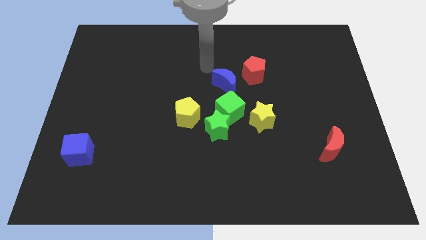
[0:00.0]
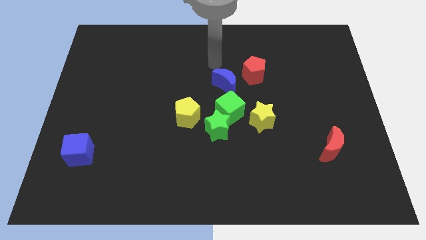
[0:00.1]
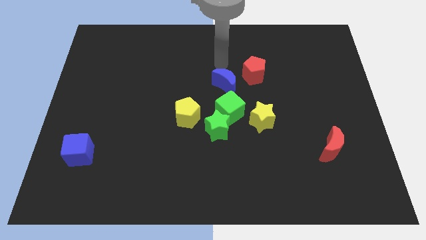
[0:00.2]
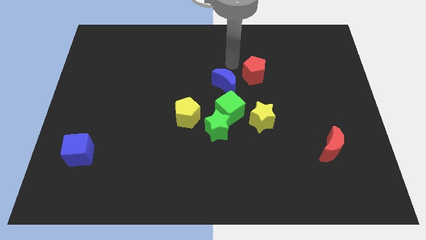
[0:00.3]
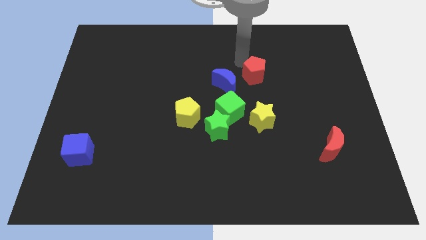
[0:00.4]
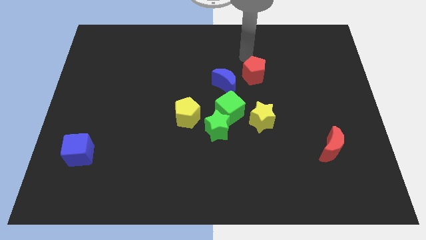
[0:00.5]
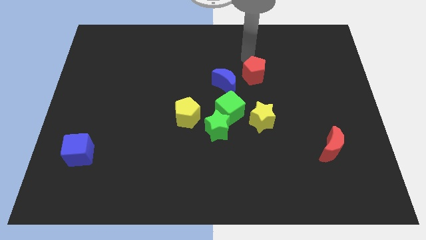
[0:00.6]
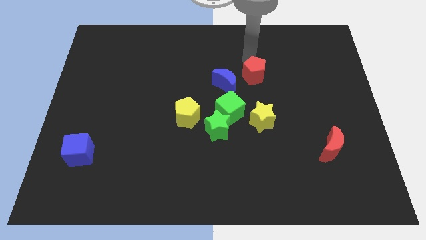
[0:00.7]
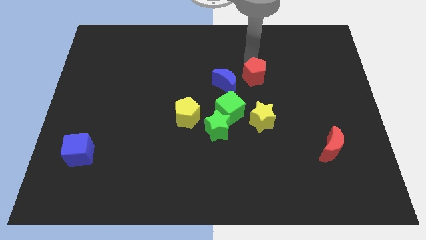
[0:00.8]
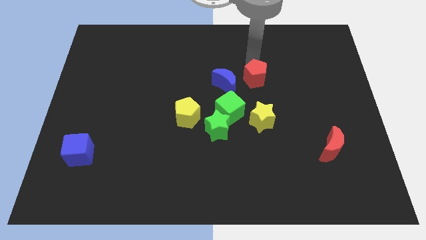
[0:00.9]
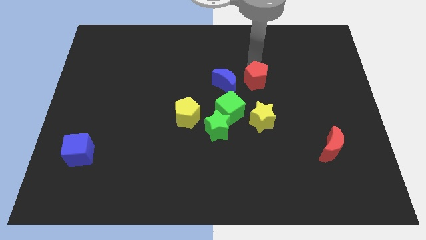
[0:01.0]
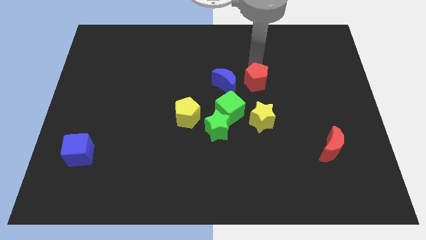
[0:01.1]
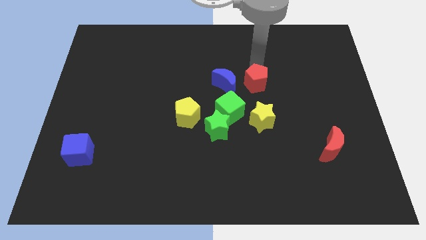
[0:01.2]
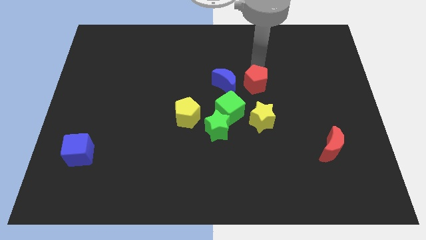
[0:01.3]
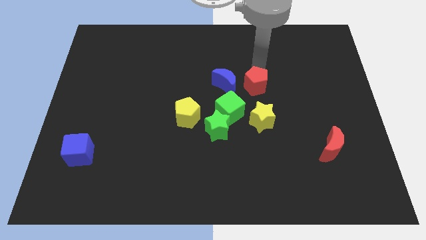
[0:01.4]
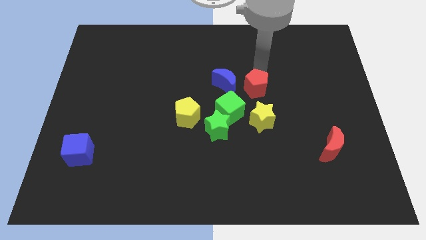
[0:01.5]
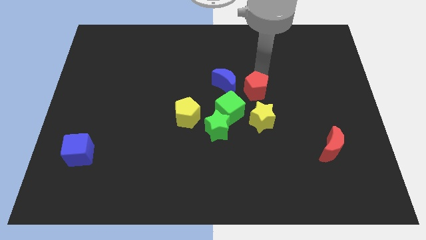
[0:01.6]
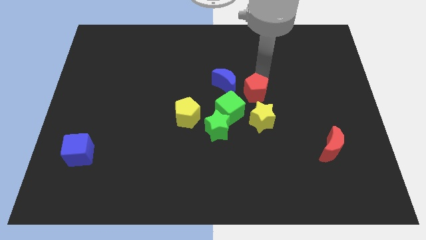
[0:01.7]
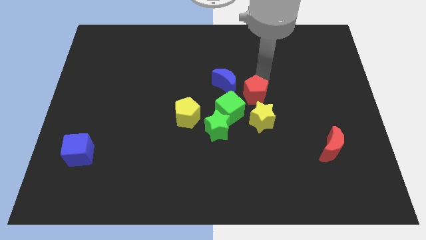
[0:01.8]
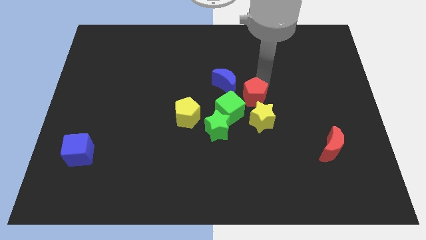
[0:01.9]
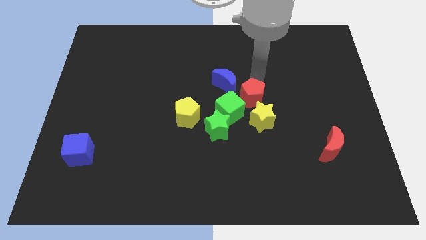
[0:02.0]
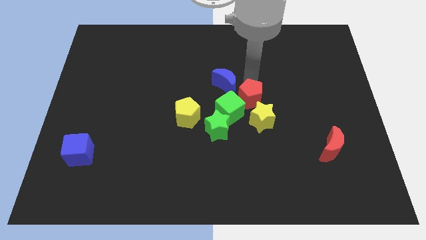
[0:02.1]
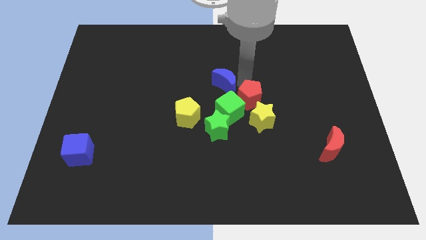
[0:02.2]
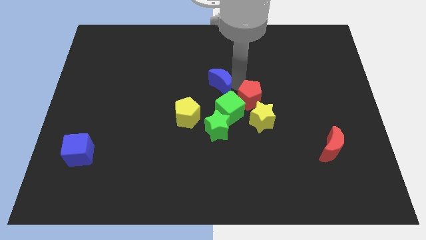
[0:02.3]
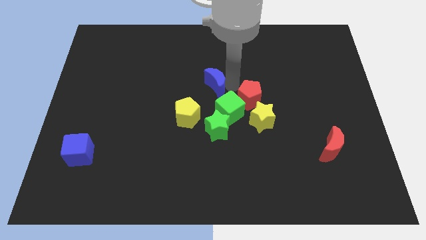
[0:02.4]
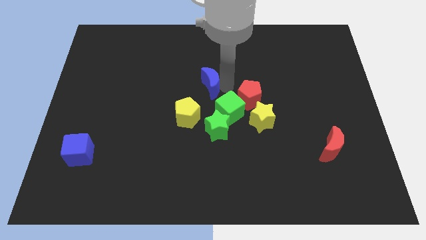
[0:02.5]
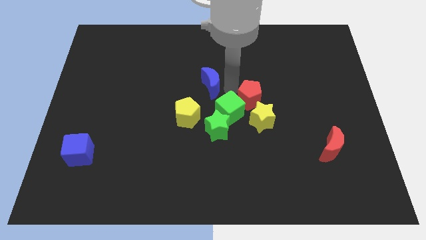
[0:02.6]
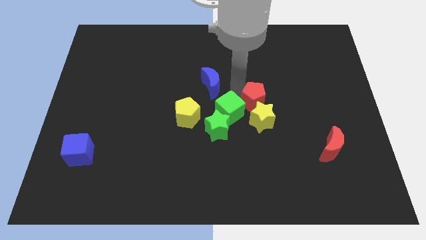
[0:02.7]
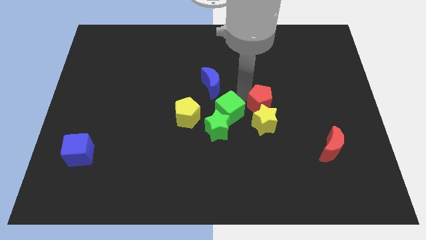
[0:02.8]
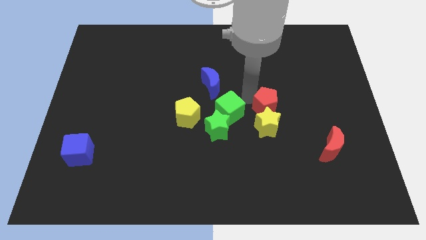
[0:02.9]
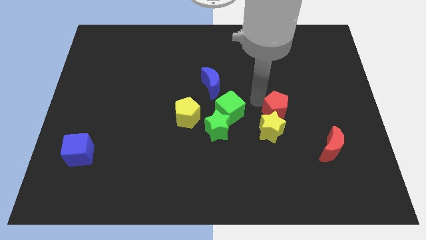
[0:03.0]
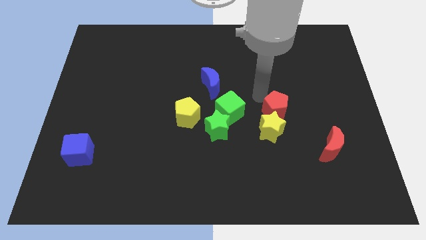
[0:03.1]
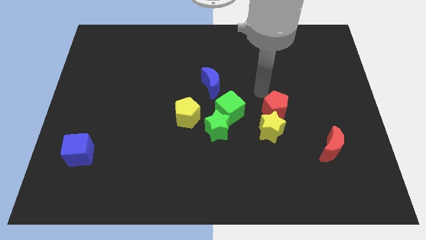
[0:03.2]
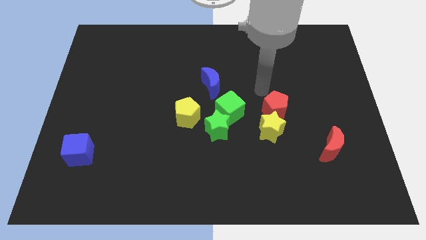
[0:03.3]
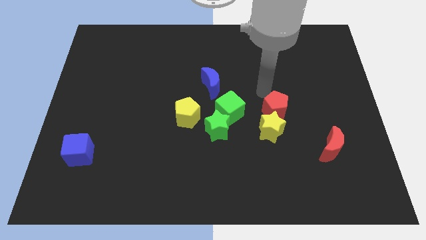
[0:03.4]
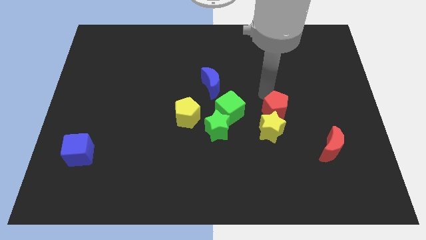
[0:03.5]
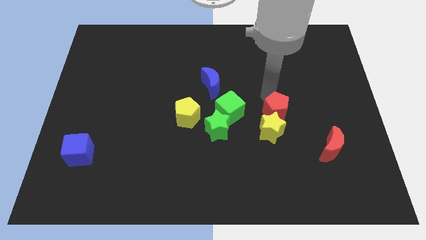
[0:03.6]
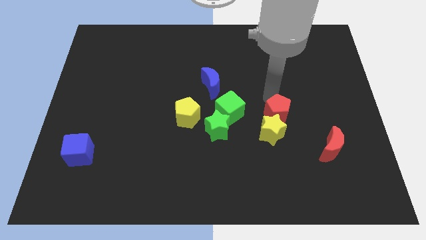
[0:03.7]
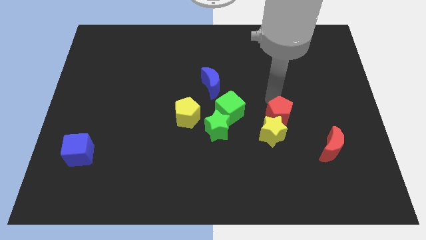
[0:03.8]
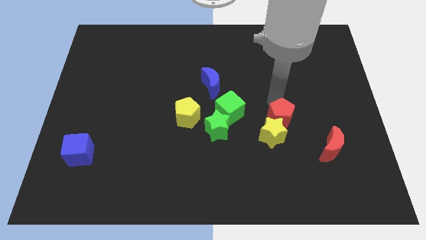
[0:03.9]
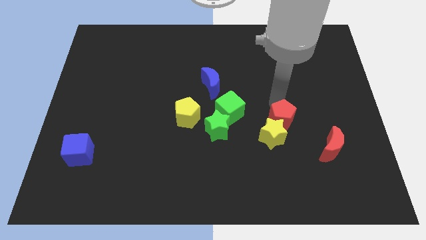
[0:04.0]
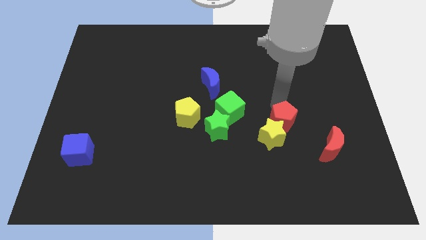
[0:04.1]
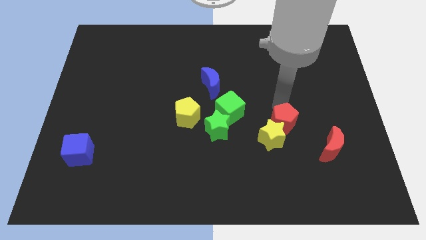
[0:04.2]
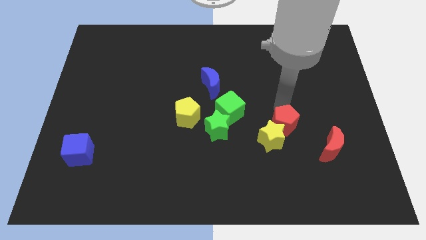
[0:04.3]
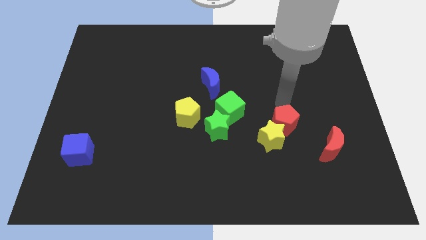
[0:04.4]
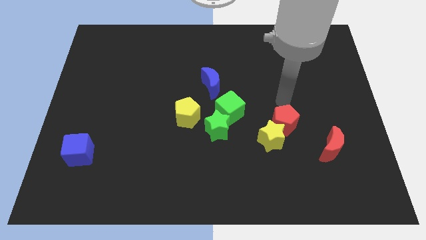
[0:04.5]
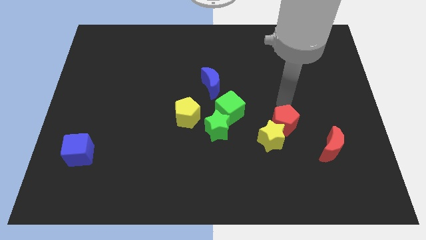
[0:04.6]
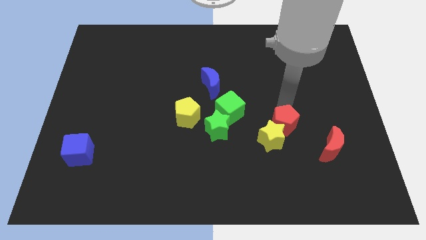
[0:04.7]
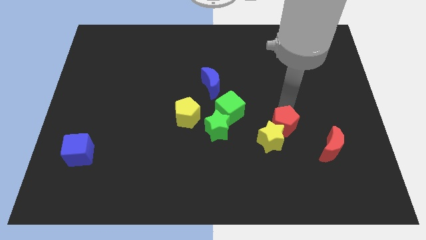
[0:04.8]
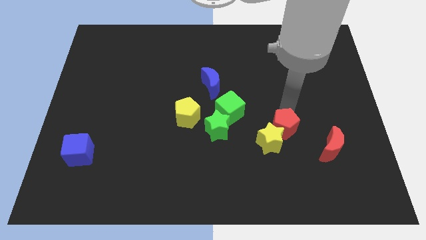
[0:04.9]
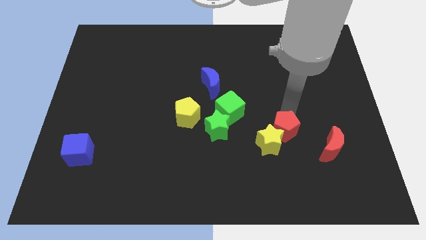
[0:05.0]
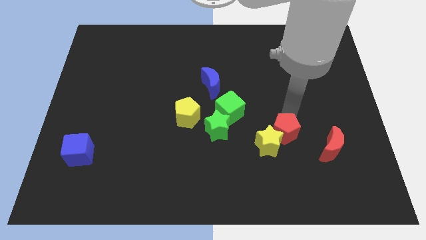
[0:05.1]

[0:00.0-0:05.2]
slide the red pentagon to the left of the red moon

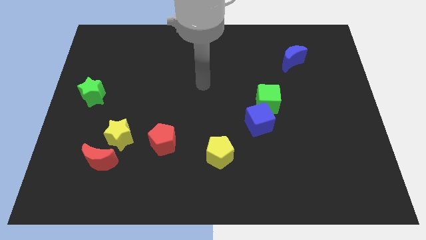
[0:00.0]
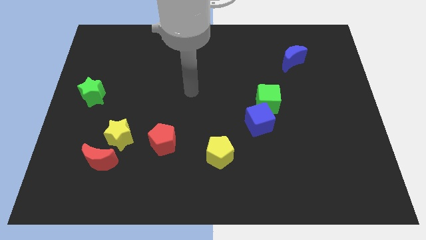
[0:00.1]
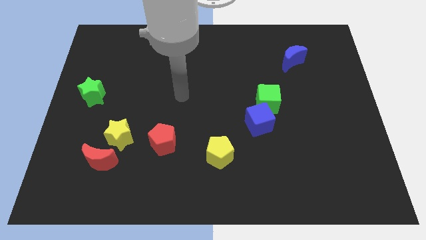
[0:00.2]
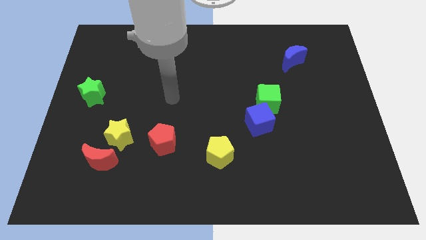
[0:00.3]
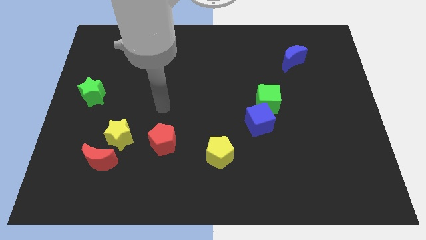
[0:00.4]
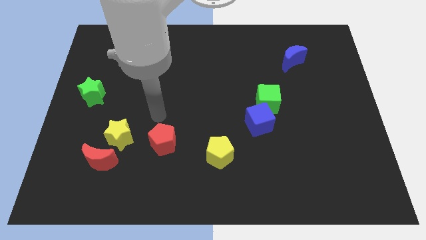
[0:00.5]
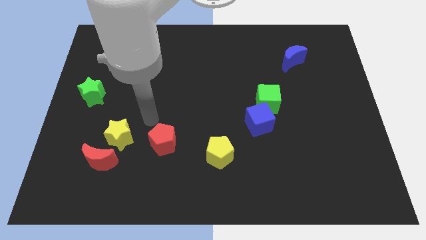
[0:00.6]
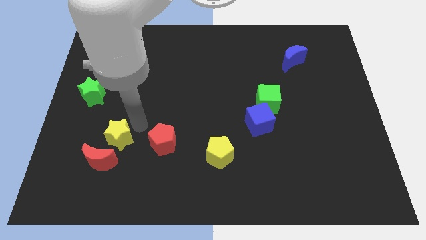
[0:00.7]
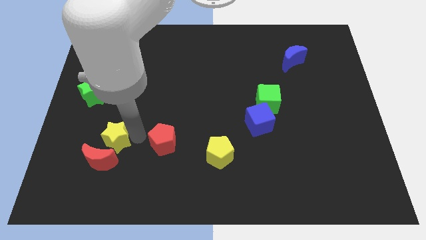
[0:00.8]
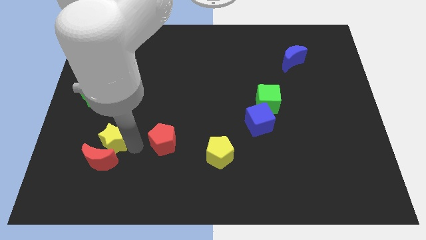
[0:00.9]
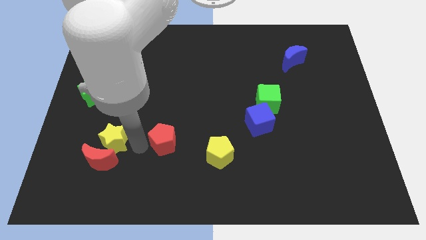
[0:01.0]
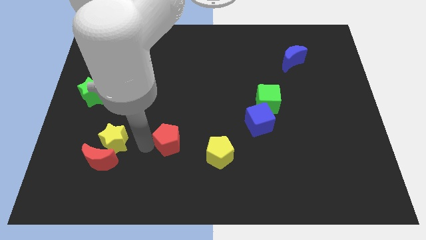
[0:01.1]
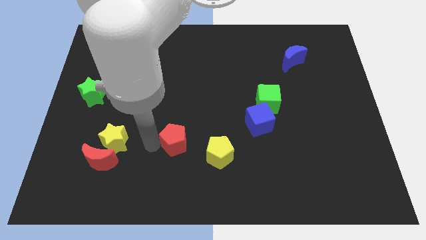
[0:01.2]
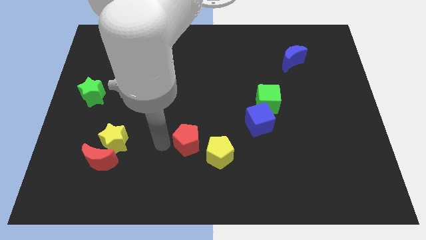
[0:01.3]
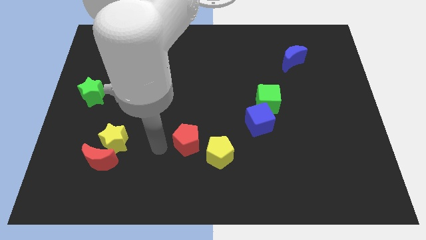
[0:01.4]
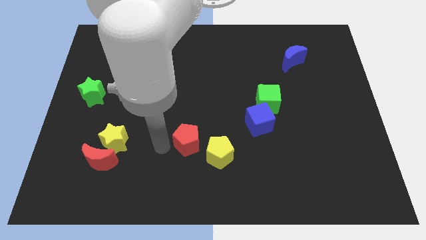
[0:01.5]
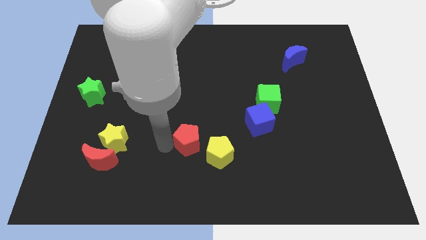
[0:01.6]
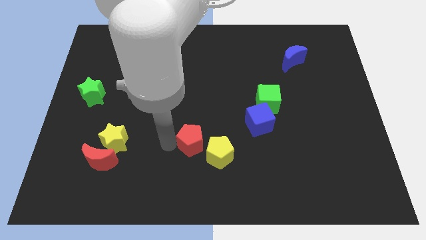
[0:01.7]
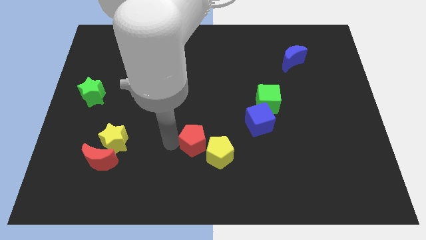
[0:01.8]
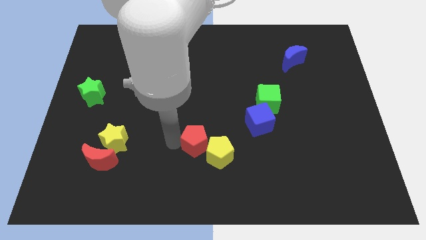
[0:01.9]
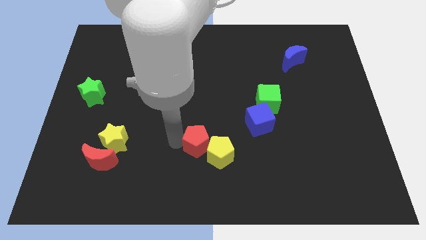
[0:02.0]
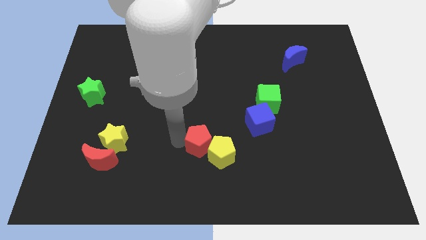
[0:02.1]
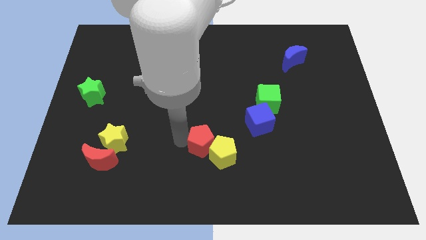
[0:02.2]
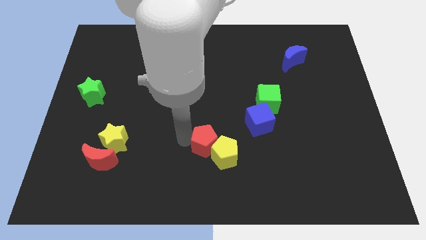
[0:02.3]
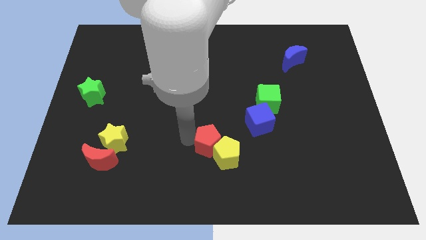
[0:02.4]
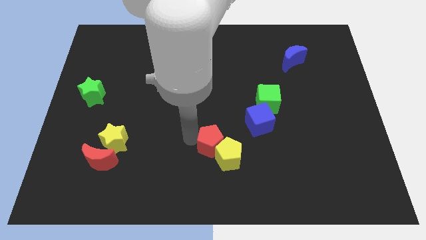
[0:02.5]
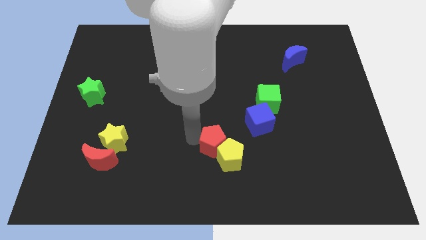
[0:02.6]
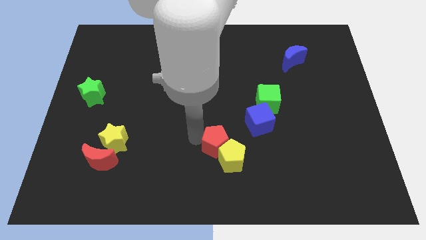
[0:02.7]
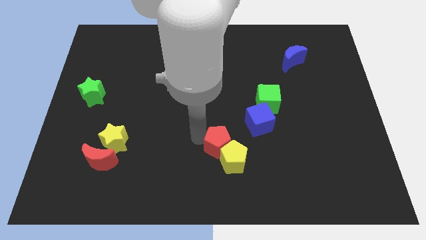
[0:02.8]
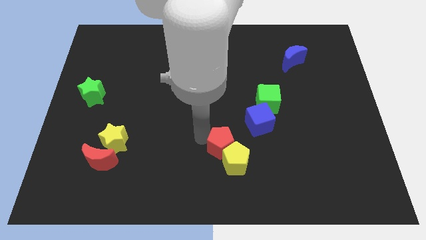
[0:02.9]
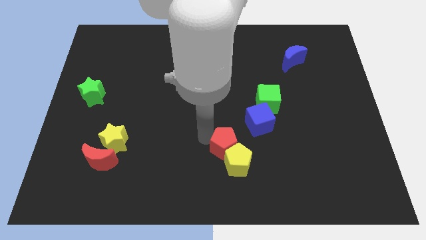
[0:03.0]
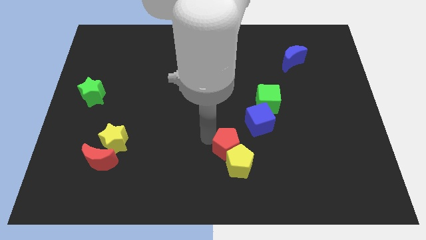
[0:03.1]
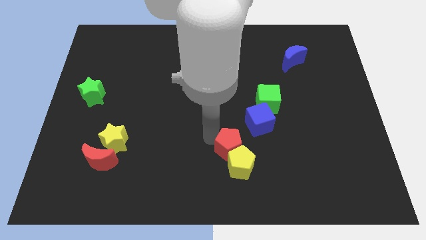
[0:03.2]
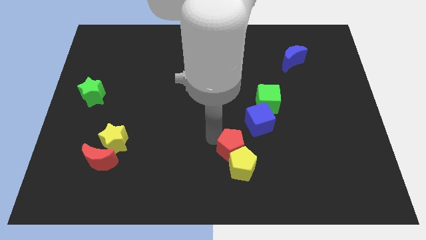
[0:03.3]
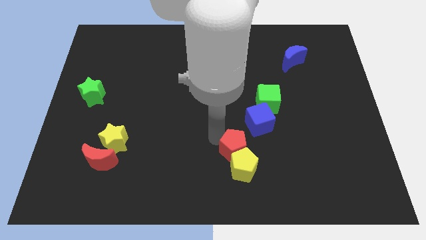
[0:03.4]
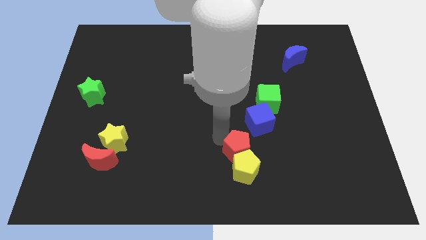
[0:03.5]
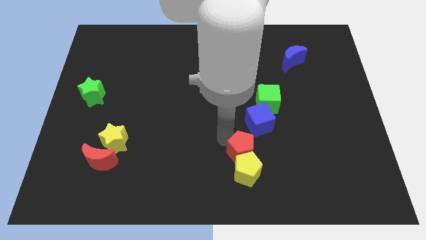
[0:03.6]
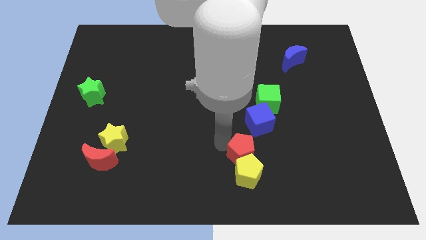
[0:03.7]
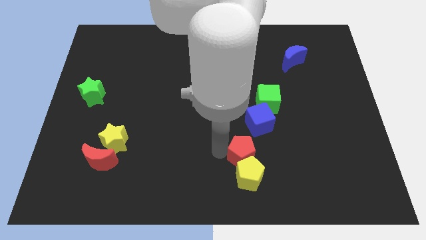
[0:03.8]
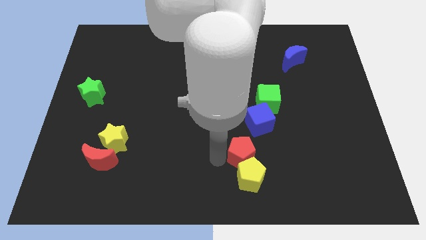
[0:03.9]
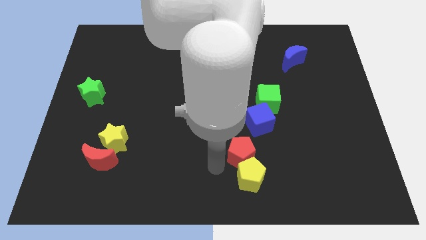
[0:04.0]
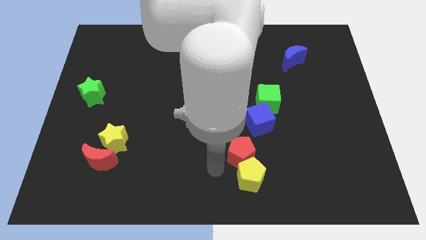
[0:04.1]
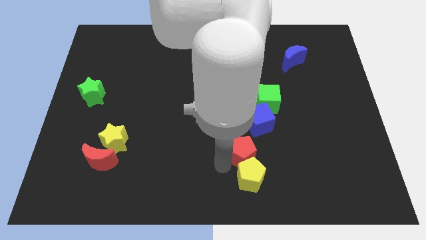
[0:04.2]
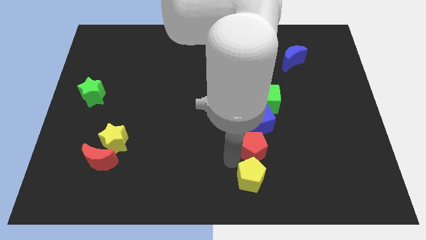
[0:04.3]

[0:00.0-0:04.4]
move the red pentagon to the bottom side of the green cube
